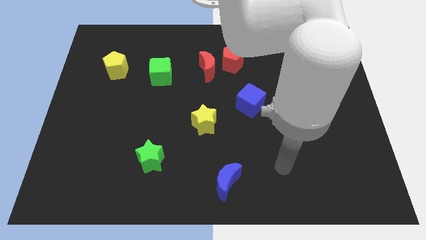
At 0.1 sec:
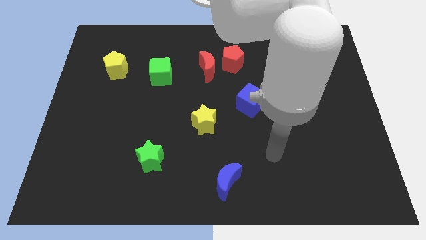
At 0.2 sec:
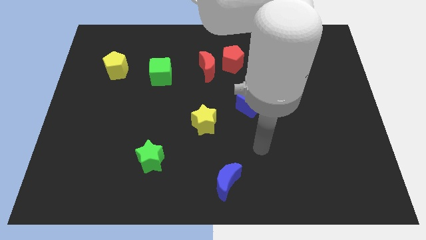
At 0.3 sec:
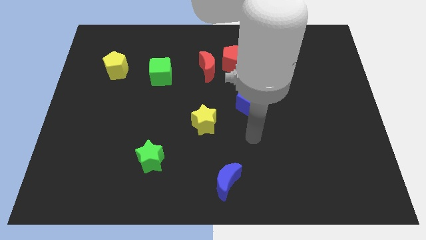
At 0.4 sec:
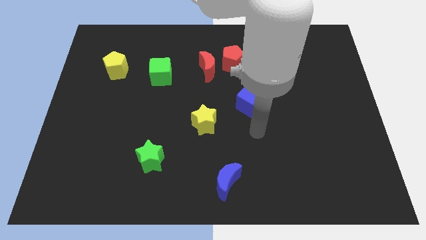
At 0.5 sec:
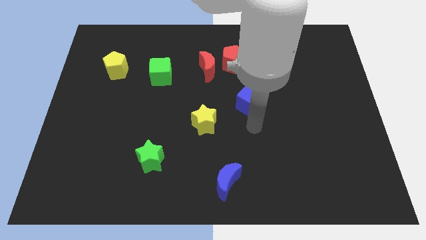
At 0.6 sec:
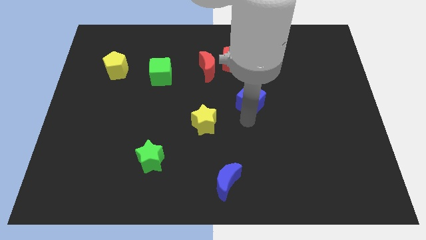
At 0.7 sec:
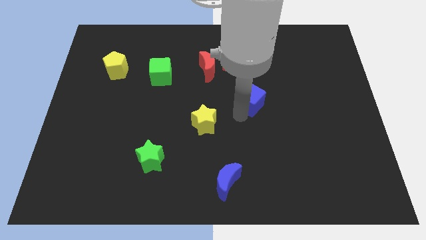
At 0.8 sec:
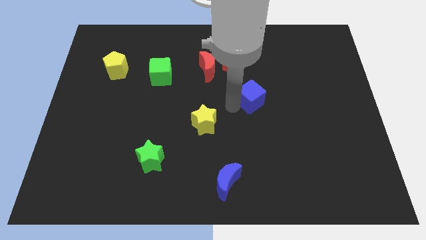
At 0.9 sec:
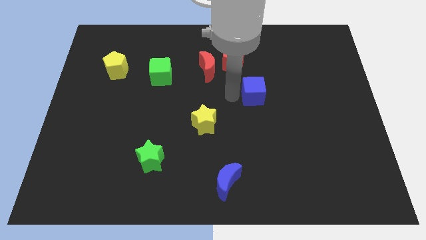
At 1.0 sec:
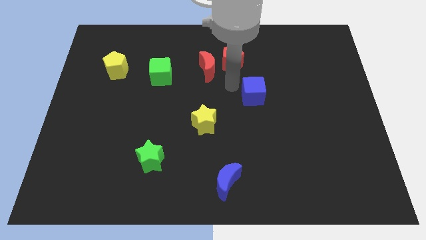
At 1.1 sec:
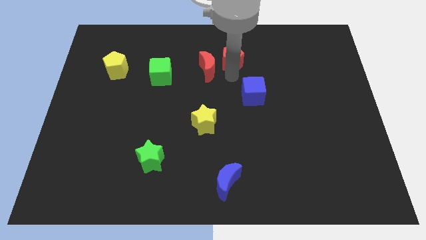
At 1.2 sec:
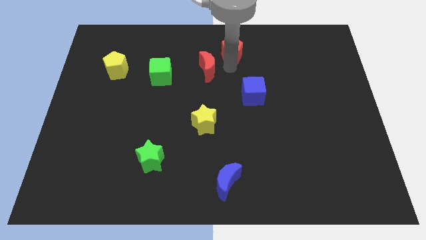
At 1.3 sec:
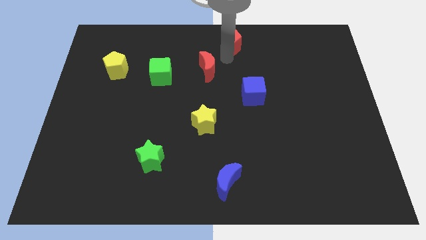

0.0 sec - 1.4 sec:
pull the red moon apart from the red pentagon

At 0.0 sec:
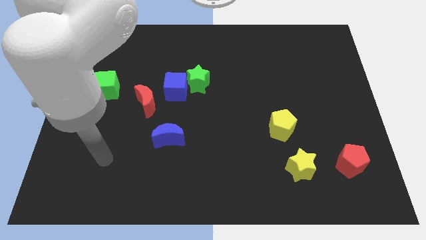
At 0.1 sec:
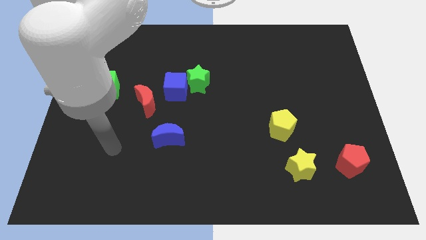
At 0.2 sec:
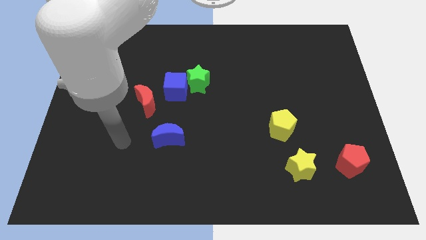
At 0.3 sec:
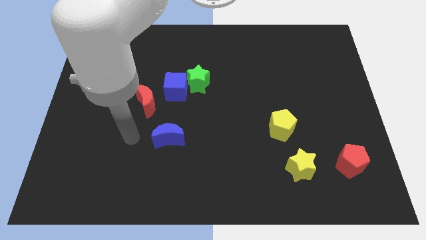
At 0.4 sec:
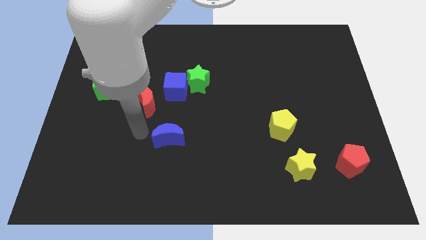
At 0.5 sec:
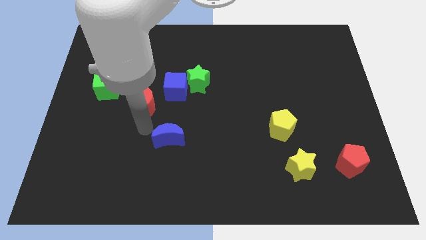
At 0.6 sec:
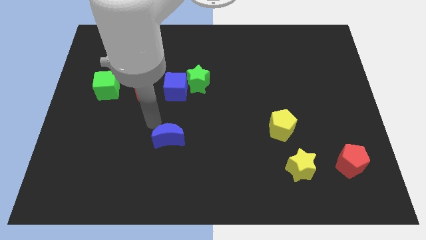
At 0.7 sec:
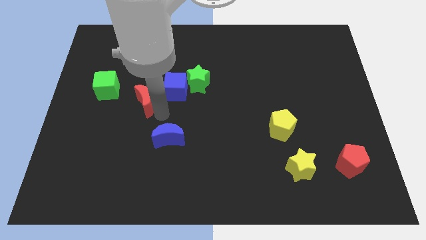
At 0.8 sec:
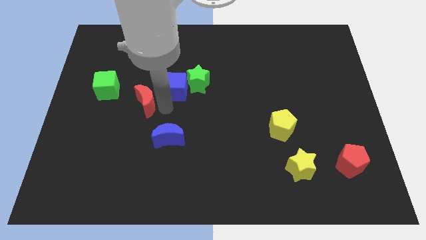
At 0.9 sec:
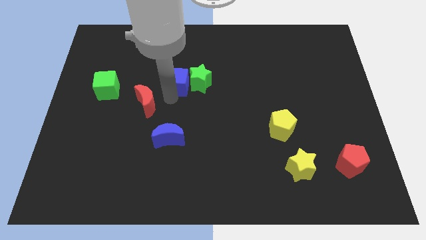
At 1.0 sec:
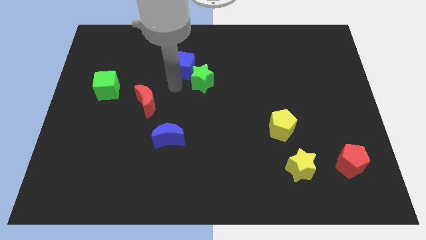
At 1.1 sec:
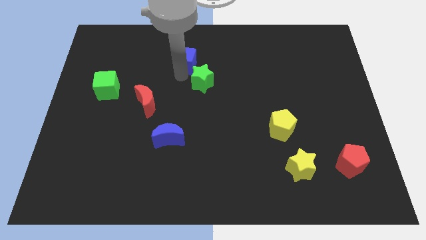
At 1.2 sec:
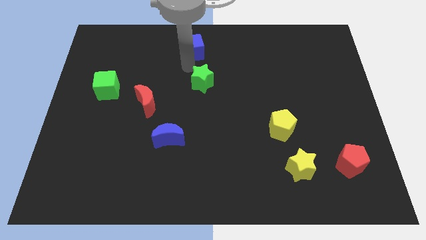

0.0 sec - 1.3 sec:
separate the green star from the blue cube

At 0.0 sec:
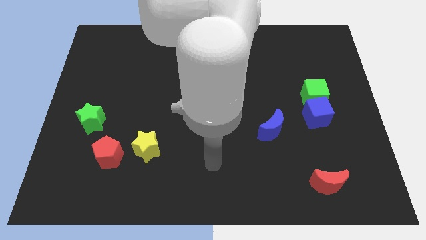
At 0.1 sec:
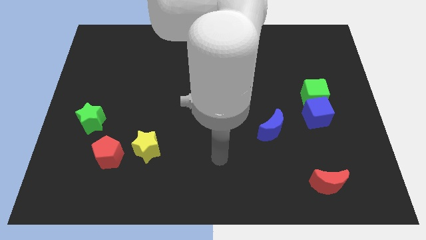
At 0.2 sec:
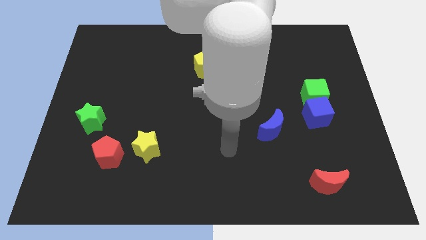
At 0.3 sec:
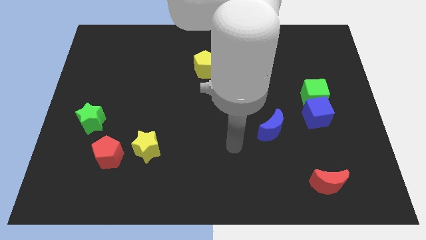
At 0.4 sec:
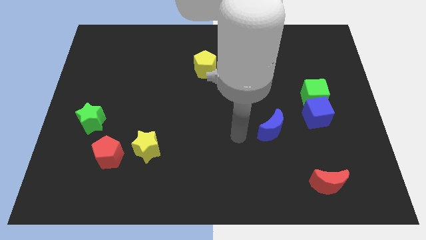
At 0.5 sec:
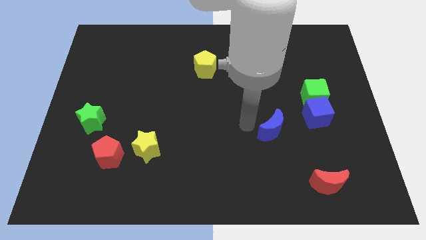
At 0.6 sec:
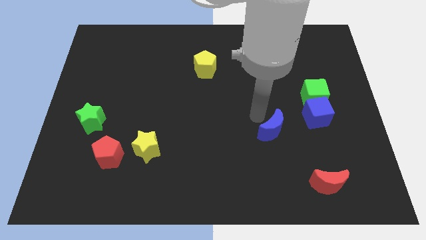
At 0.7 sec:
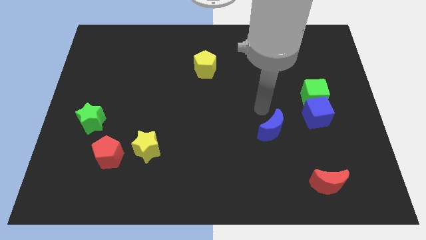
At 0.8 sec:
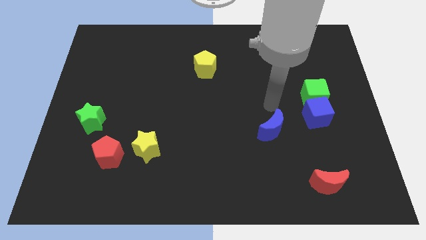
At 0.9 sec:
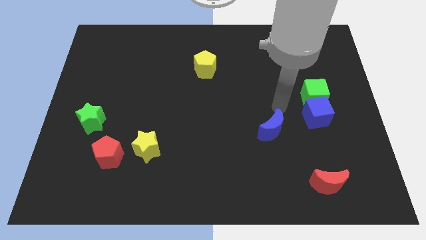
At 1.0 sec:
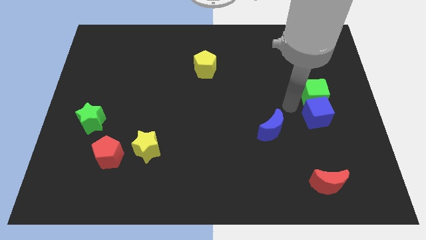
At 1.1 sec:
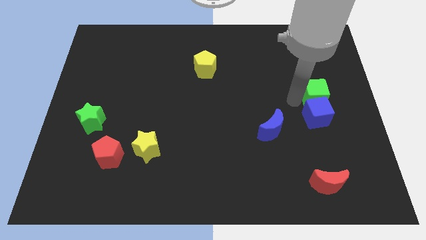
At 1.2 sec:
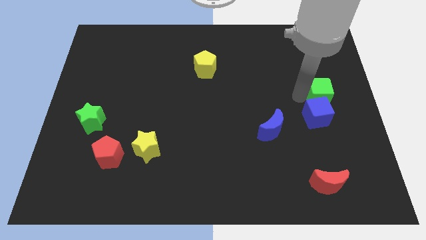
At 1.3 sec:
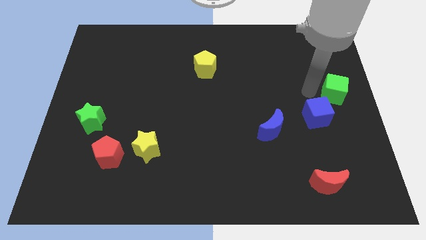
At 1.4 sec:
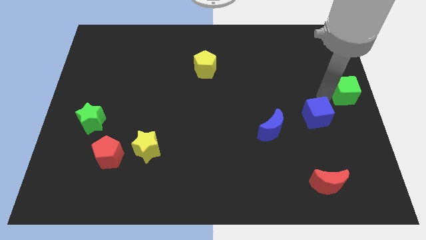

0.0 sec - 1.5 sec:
pull the blue cube apart from the green cube

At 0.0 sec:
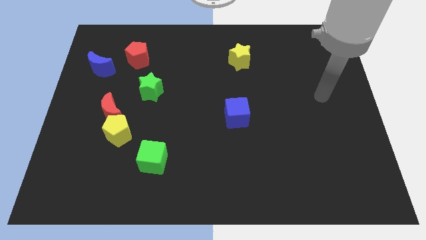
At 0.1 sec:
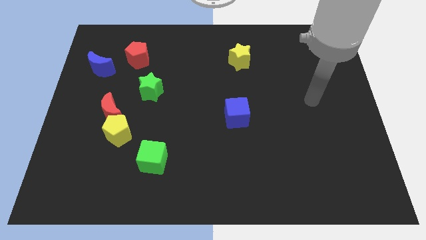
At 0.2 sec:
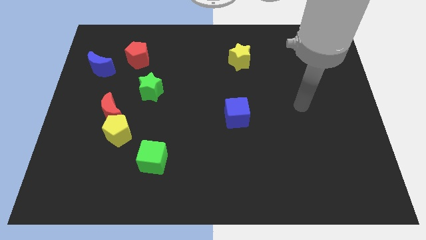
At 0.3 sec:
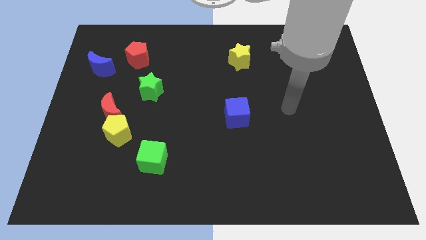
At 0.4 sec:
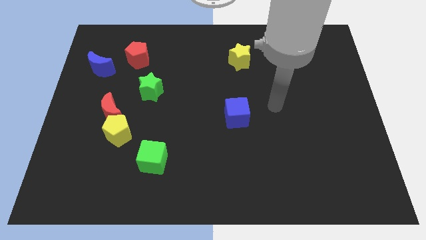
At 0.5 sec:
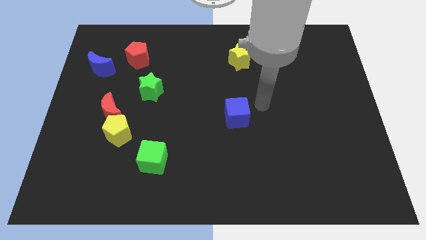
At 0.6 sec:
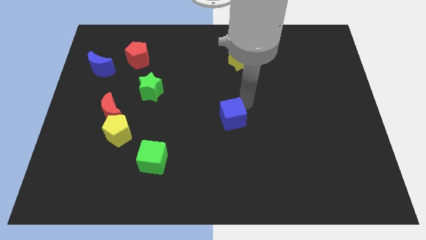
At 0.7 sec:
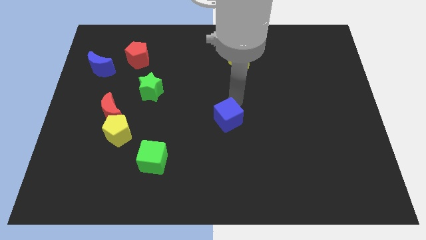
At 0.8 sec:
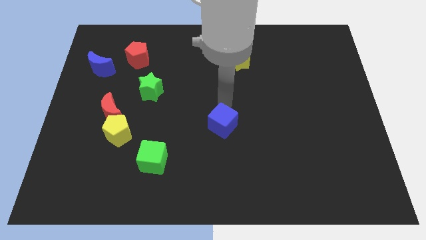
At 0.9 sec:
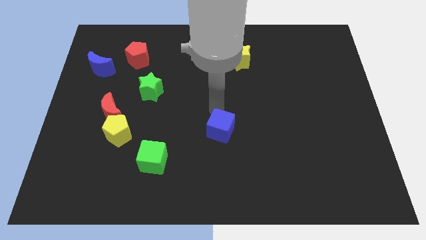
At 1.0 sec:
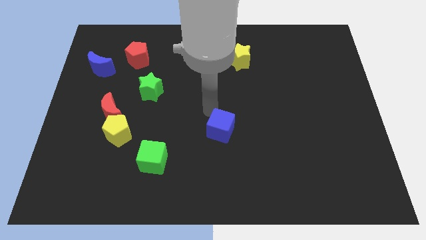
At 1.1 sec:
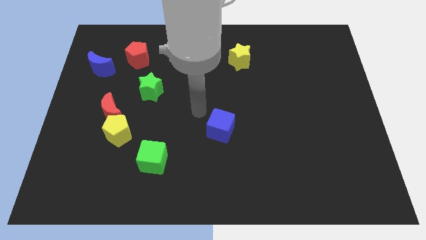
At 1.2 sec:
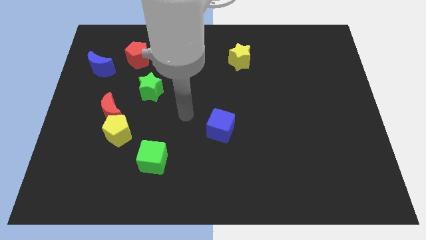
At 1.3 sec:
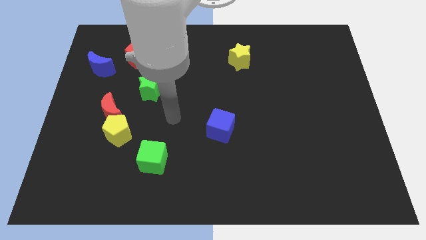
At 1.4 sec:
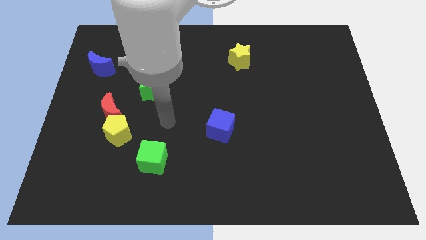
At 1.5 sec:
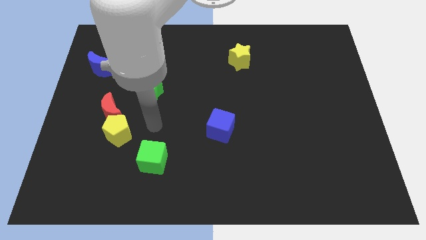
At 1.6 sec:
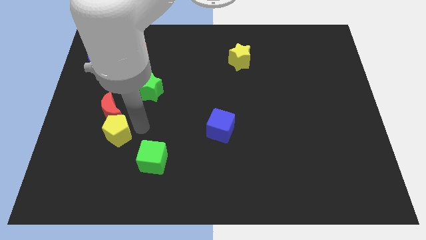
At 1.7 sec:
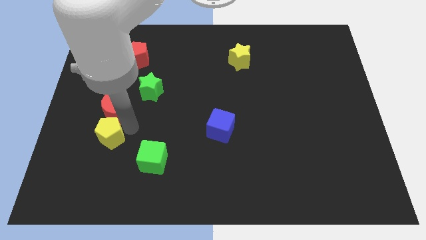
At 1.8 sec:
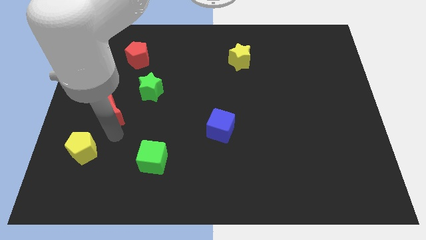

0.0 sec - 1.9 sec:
separate the red moon from the yellow pentagon

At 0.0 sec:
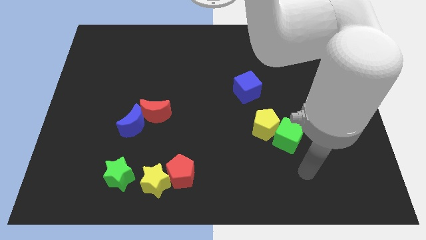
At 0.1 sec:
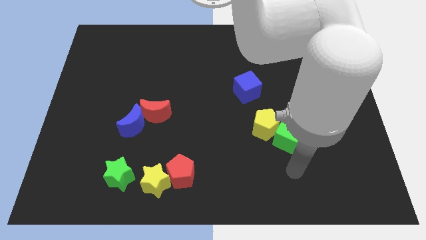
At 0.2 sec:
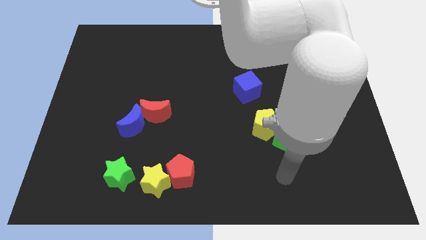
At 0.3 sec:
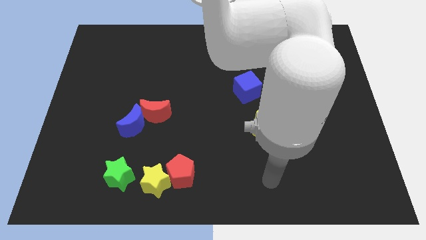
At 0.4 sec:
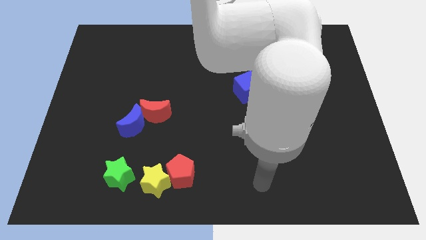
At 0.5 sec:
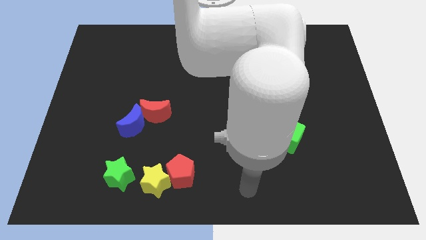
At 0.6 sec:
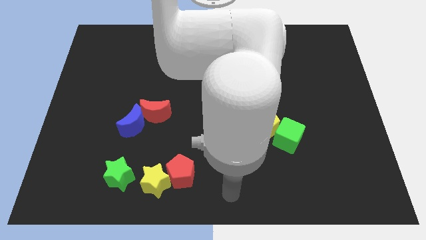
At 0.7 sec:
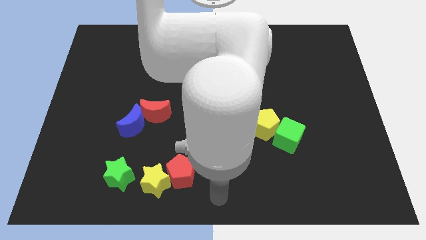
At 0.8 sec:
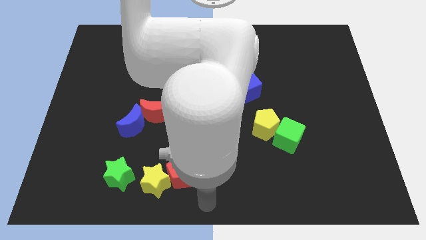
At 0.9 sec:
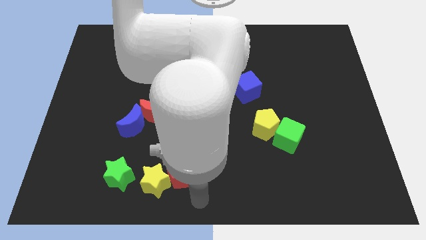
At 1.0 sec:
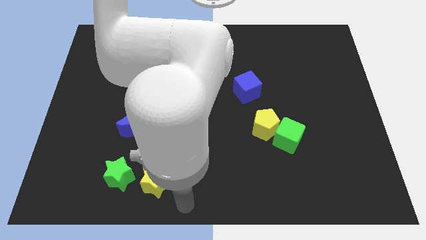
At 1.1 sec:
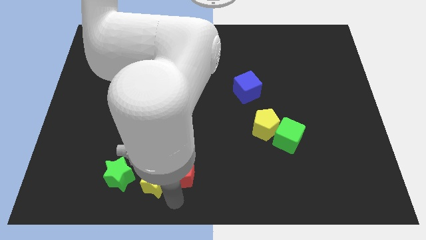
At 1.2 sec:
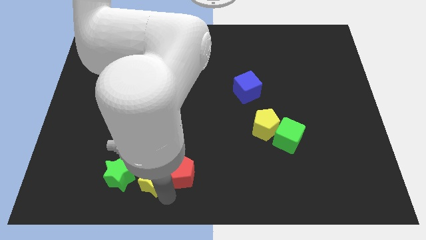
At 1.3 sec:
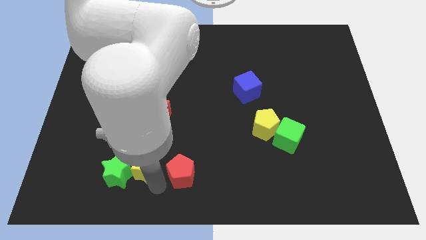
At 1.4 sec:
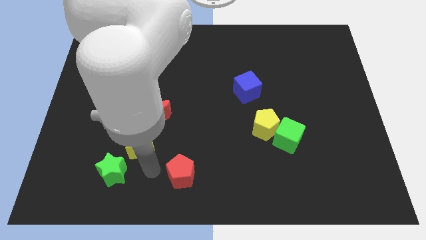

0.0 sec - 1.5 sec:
separate the red pentagon from the yellow star

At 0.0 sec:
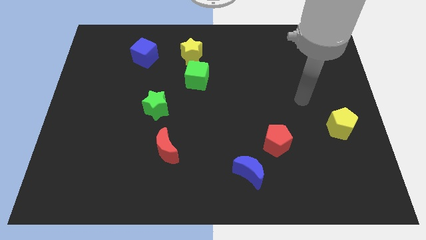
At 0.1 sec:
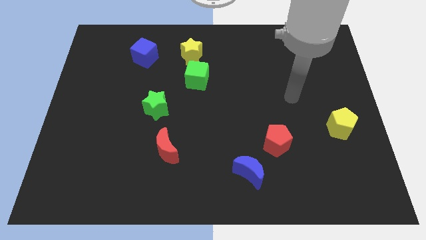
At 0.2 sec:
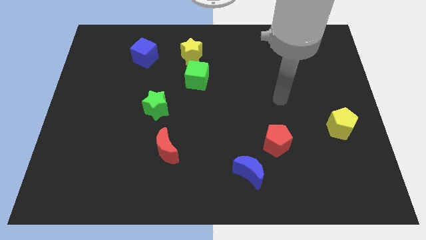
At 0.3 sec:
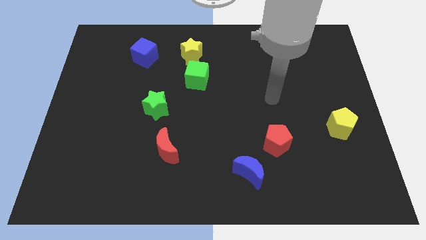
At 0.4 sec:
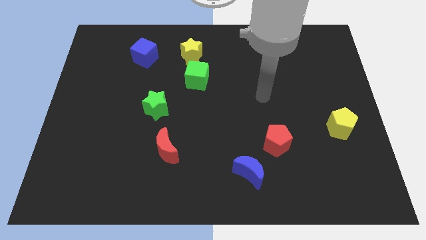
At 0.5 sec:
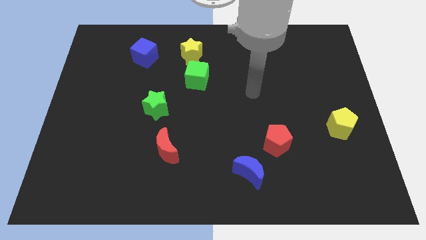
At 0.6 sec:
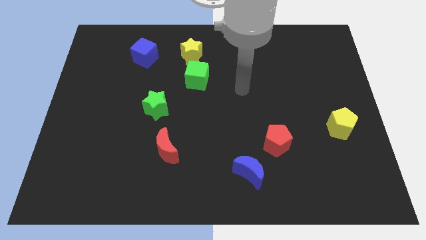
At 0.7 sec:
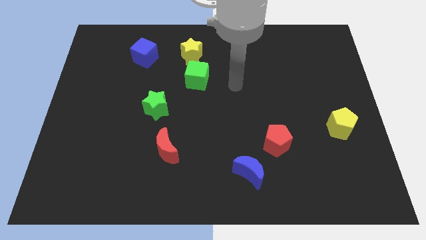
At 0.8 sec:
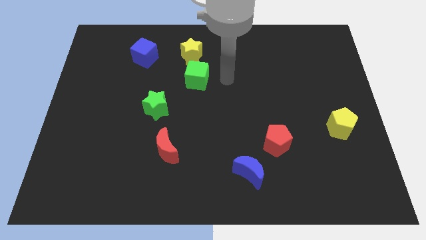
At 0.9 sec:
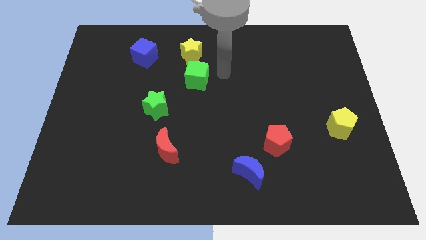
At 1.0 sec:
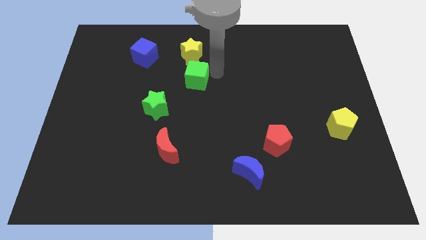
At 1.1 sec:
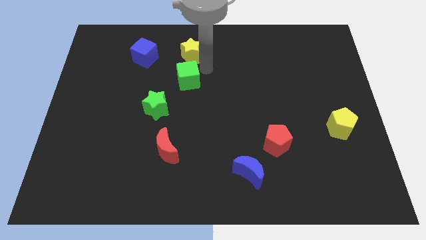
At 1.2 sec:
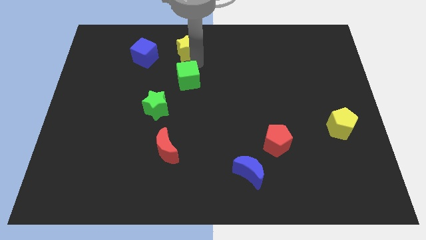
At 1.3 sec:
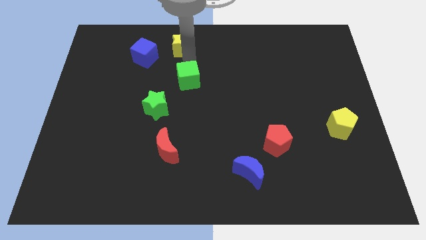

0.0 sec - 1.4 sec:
move the green cube away from the yellow star
